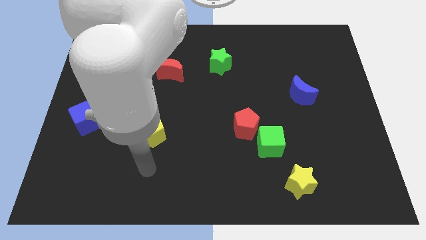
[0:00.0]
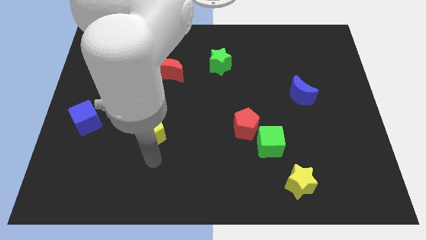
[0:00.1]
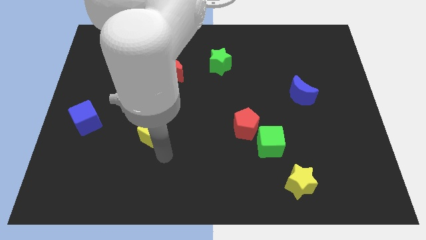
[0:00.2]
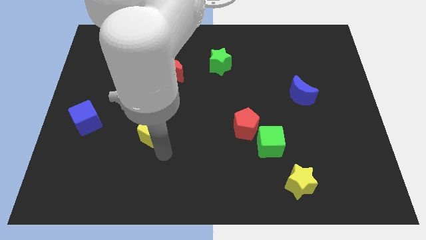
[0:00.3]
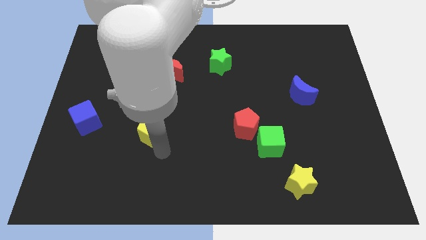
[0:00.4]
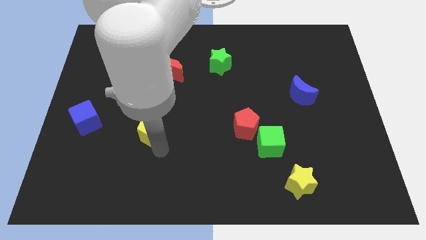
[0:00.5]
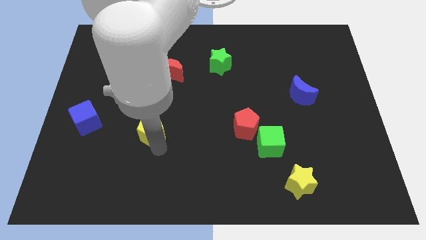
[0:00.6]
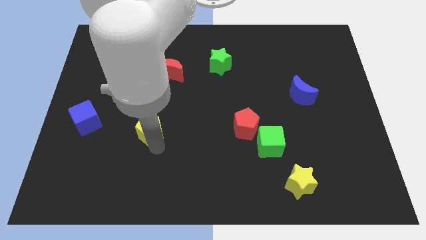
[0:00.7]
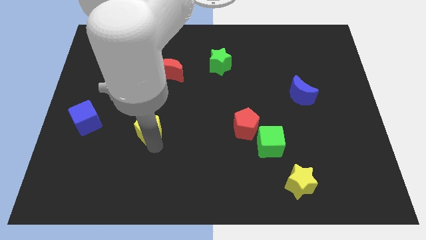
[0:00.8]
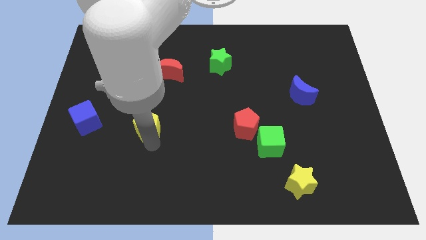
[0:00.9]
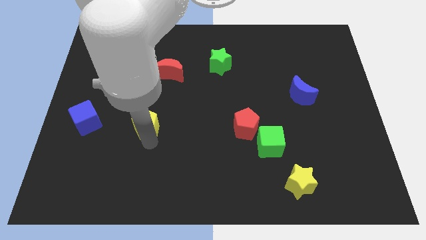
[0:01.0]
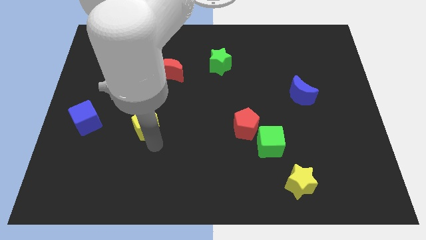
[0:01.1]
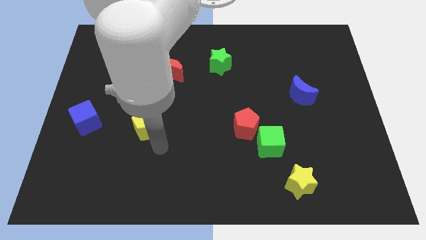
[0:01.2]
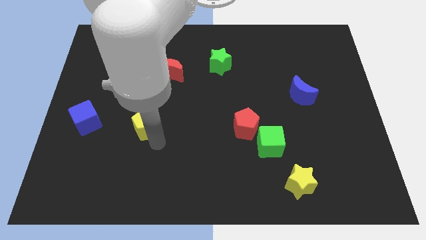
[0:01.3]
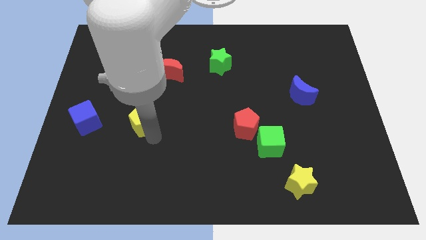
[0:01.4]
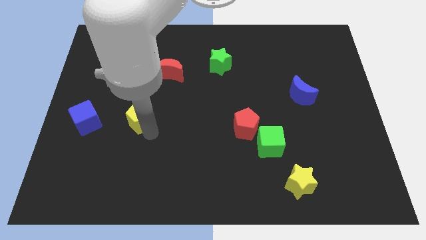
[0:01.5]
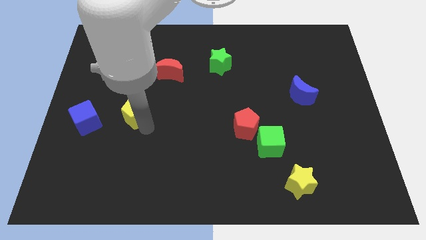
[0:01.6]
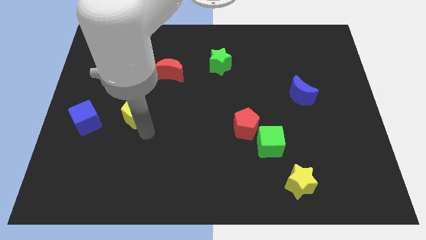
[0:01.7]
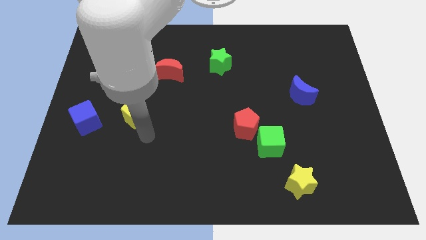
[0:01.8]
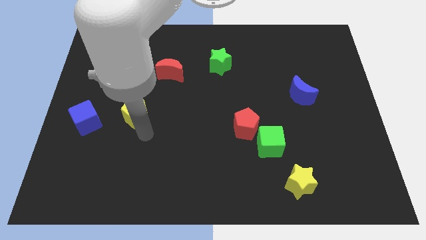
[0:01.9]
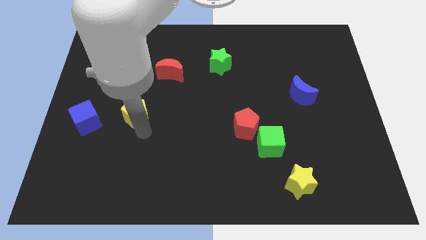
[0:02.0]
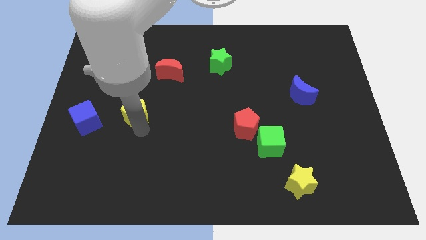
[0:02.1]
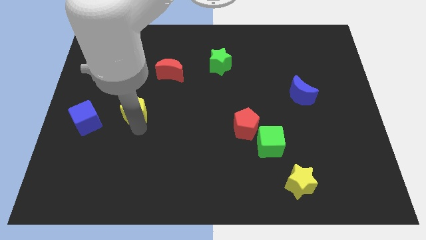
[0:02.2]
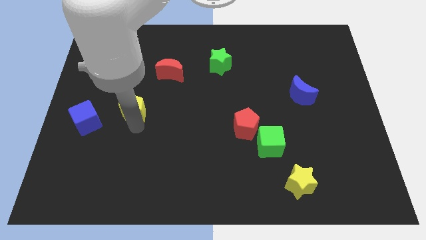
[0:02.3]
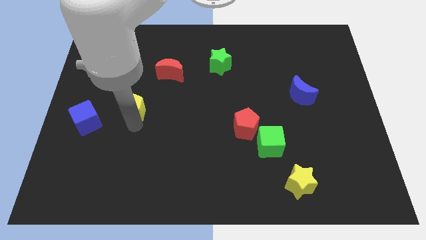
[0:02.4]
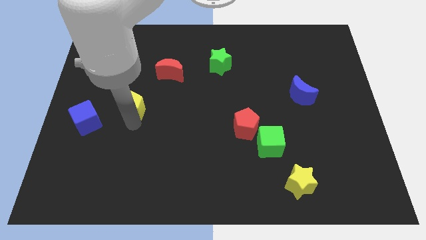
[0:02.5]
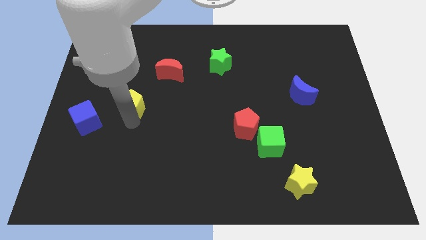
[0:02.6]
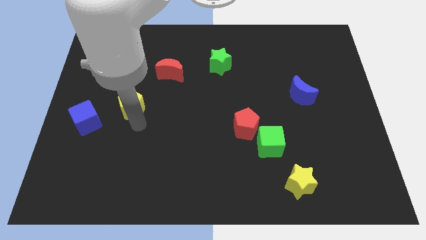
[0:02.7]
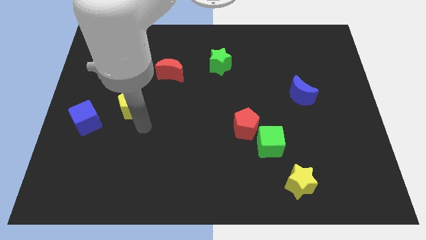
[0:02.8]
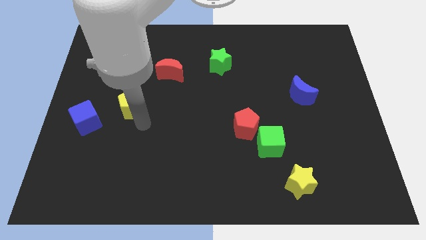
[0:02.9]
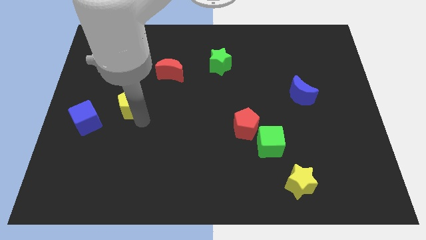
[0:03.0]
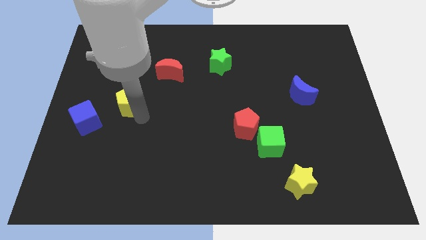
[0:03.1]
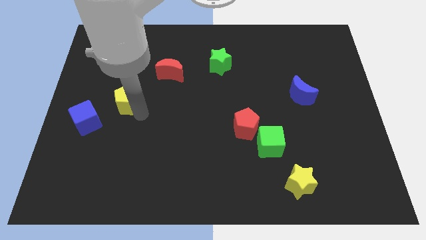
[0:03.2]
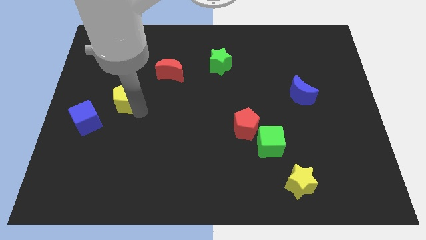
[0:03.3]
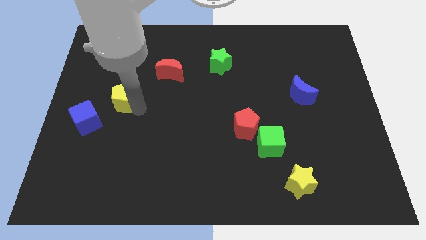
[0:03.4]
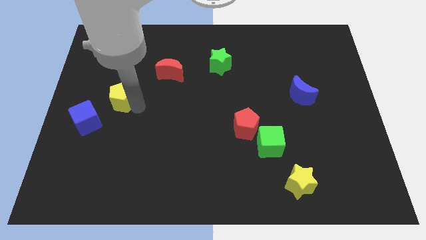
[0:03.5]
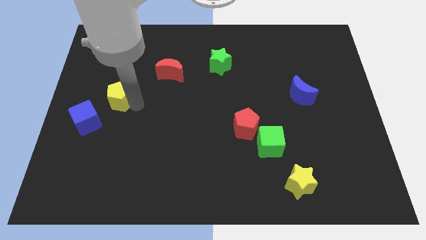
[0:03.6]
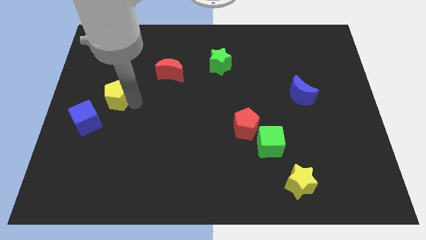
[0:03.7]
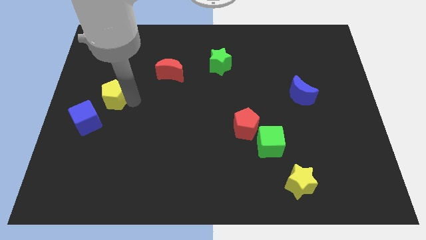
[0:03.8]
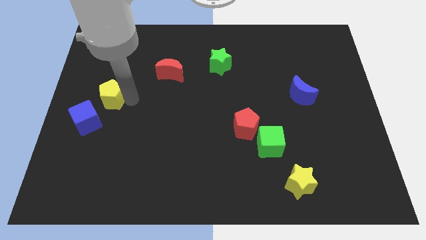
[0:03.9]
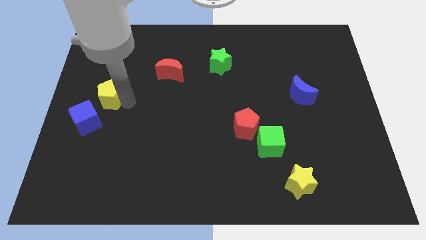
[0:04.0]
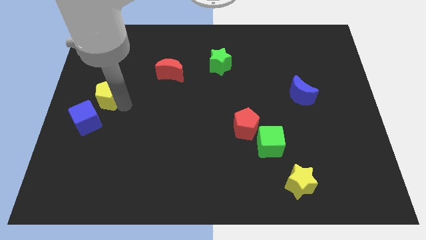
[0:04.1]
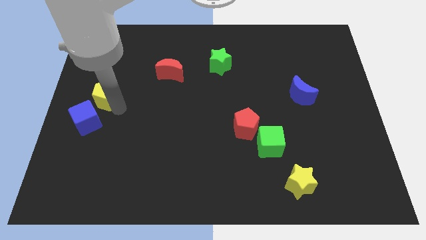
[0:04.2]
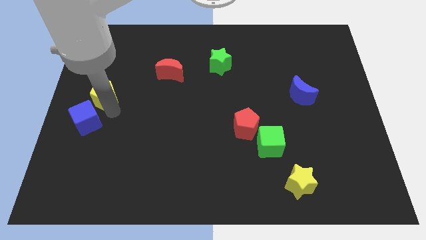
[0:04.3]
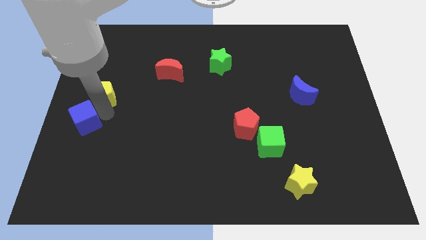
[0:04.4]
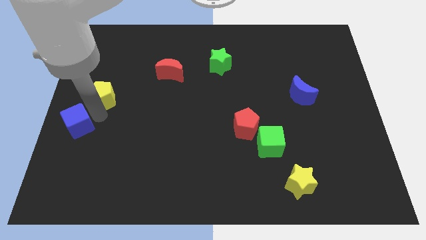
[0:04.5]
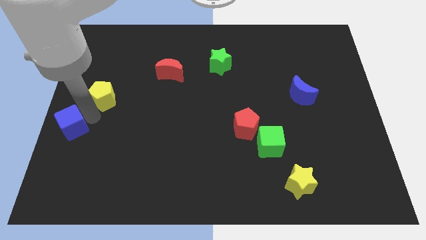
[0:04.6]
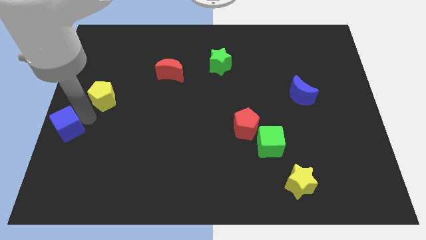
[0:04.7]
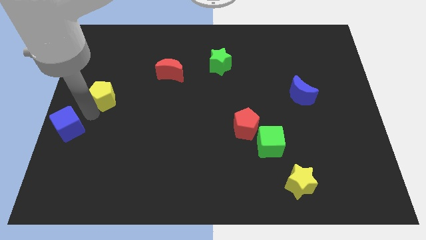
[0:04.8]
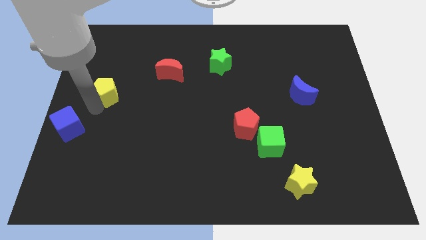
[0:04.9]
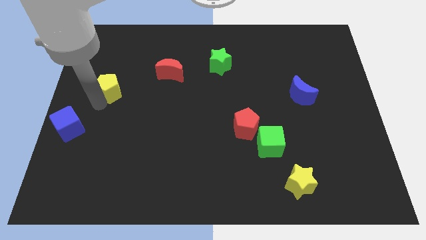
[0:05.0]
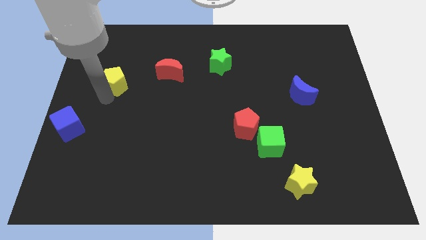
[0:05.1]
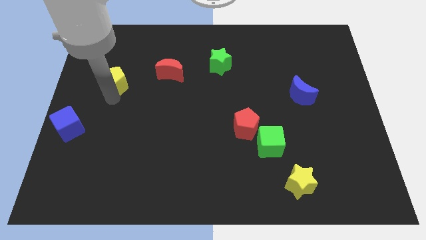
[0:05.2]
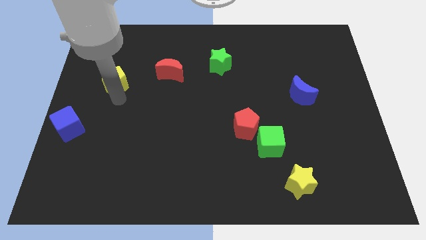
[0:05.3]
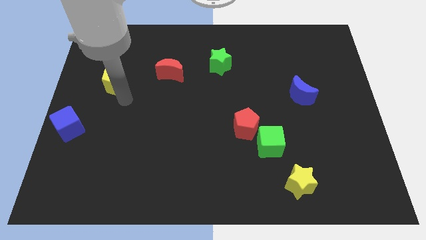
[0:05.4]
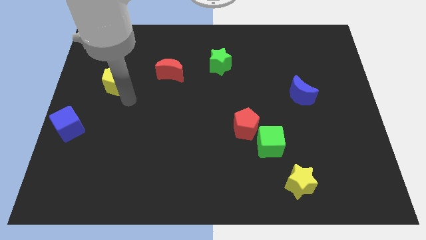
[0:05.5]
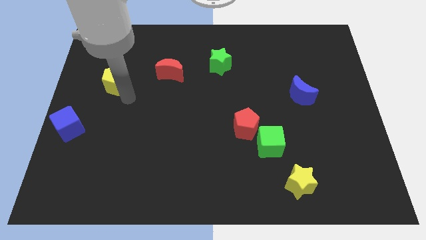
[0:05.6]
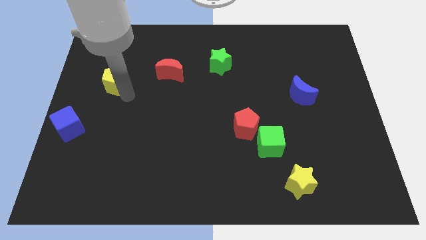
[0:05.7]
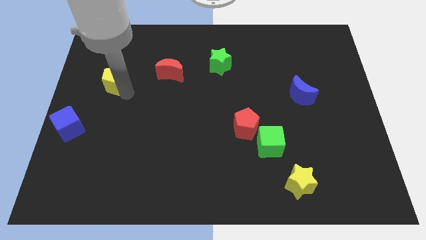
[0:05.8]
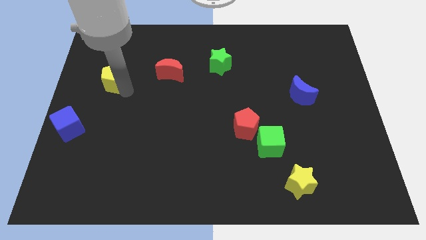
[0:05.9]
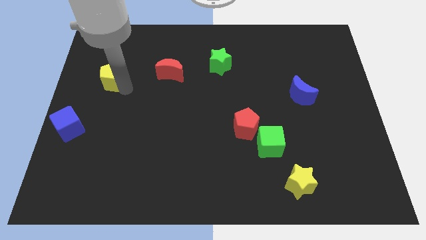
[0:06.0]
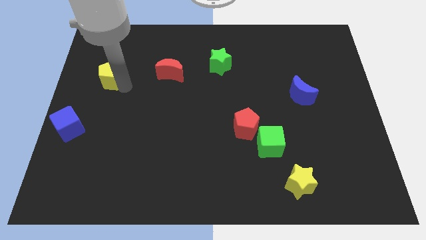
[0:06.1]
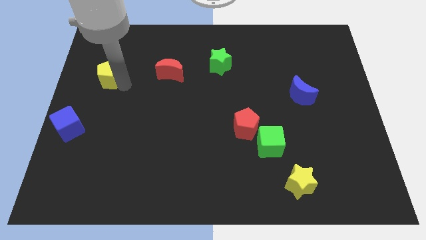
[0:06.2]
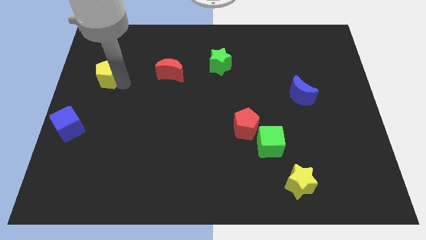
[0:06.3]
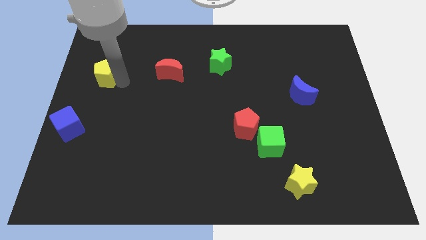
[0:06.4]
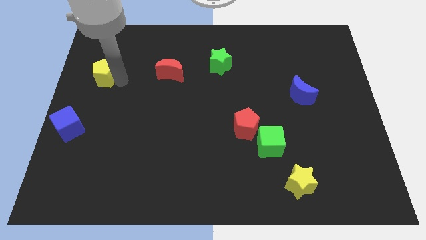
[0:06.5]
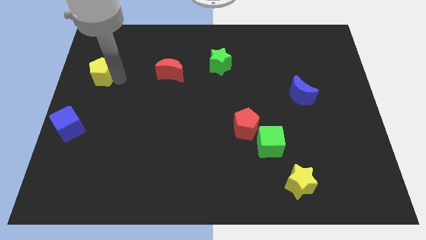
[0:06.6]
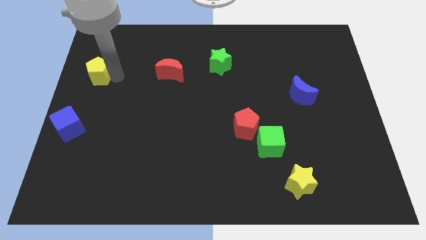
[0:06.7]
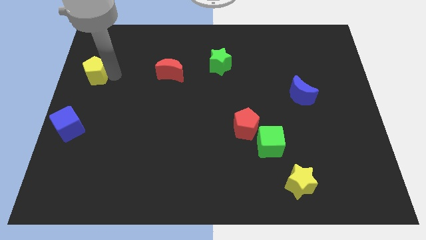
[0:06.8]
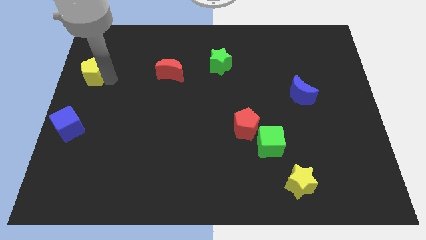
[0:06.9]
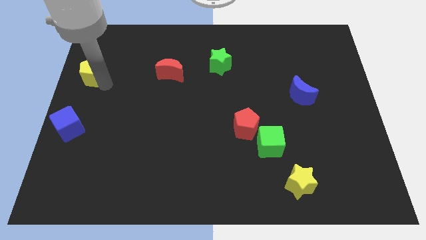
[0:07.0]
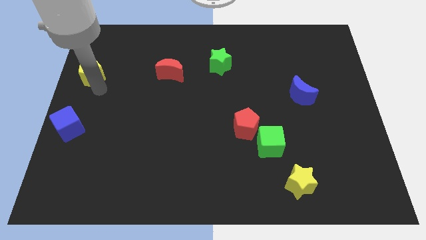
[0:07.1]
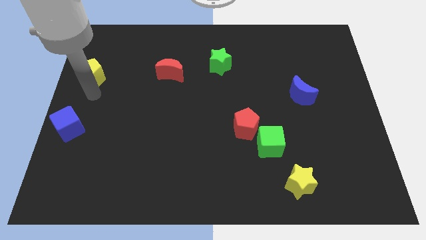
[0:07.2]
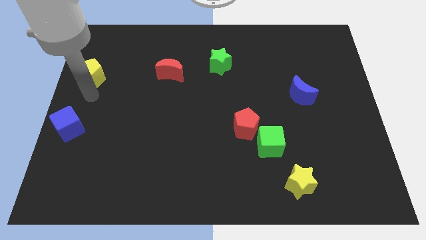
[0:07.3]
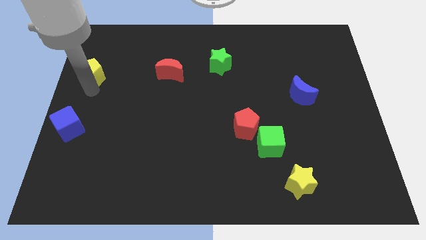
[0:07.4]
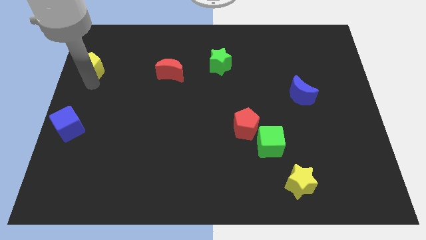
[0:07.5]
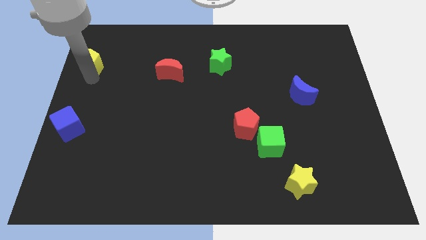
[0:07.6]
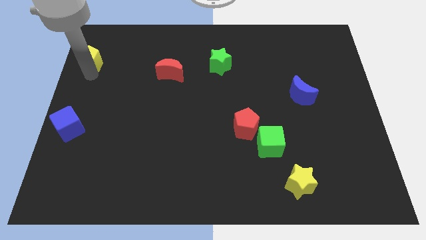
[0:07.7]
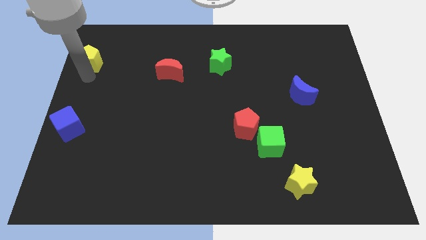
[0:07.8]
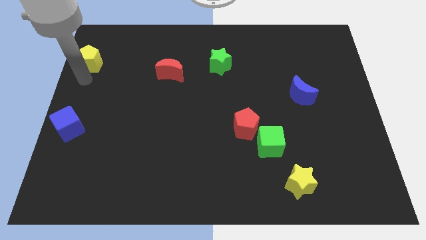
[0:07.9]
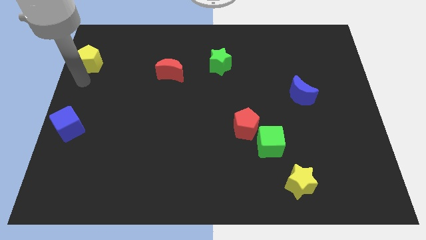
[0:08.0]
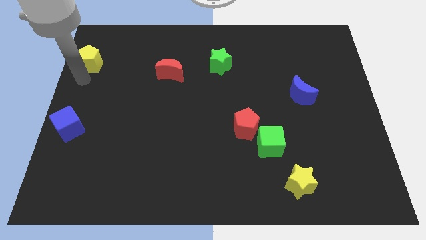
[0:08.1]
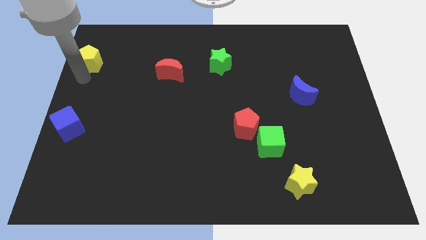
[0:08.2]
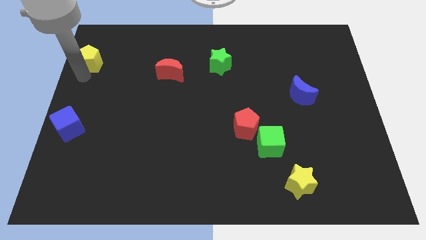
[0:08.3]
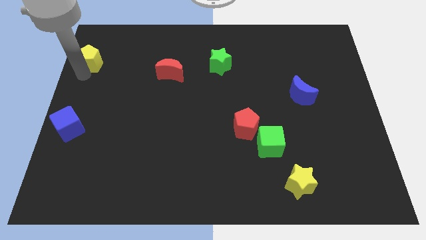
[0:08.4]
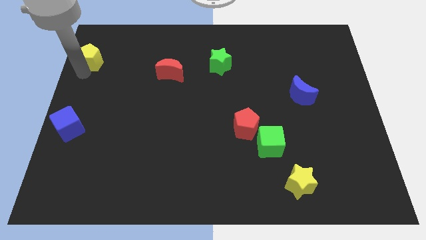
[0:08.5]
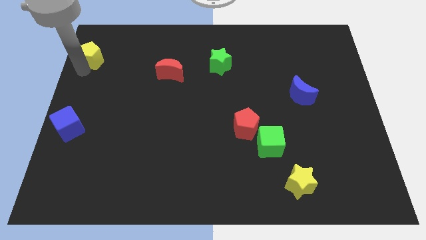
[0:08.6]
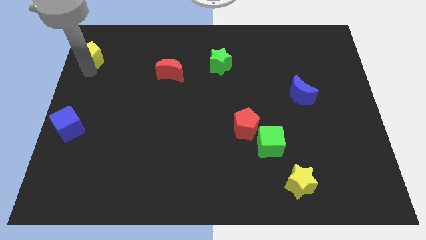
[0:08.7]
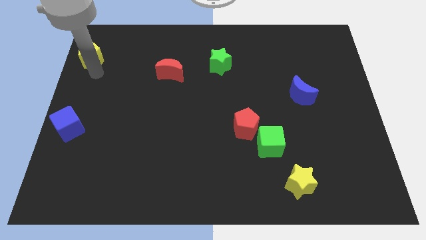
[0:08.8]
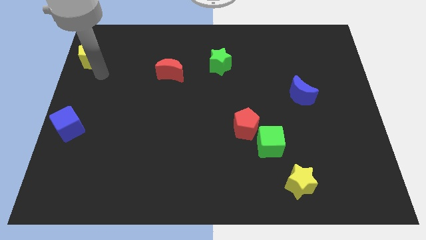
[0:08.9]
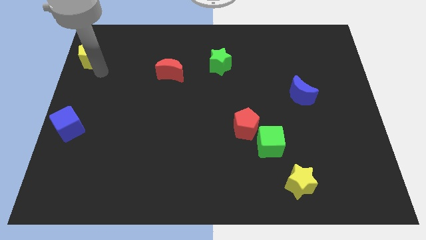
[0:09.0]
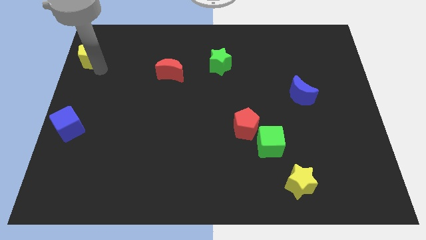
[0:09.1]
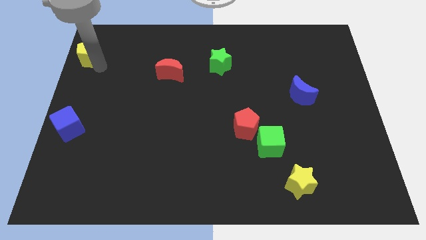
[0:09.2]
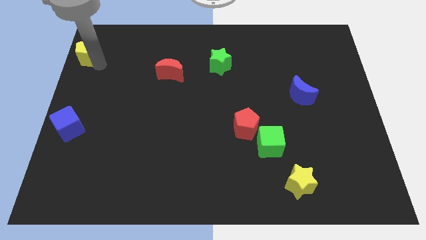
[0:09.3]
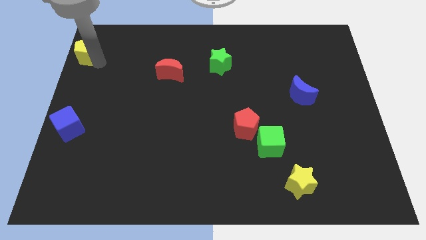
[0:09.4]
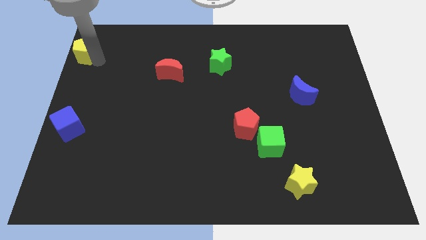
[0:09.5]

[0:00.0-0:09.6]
push the yellow pentagon to the top left of the board
